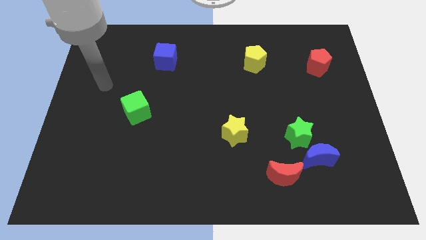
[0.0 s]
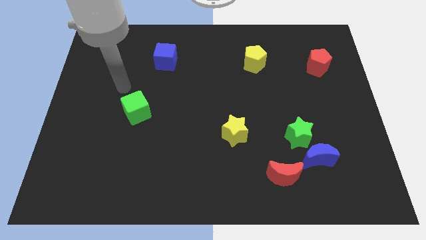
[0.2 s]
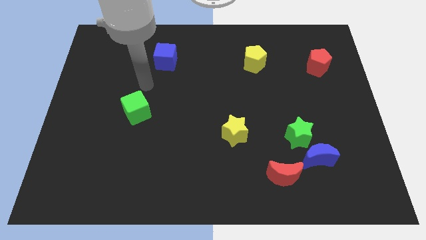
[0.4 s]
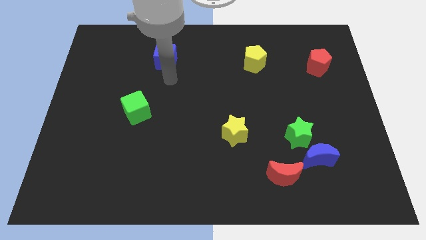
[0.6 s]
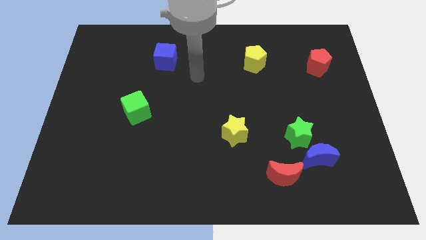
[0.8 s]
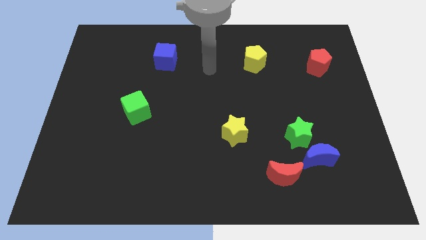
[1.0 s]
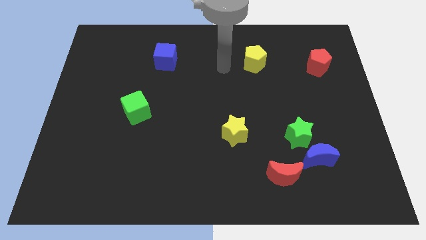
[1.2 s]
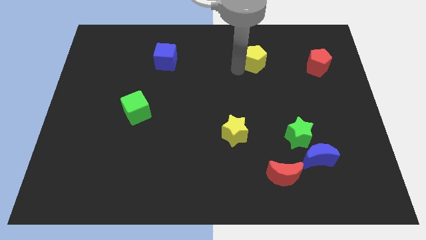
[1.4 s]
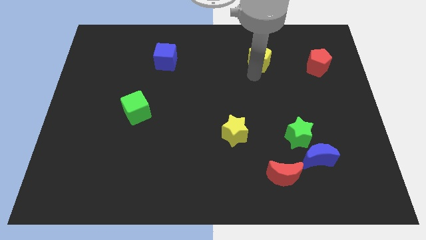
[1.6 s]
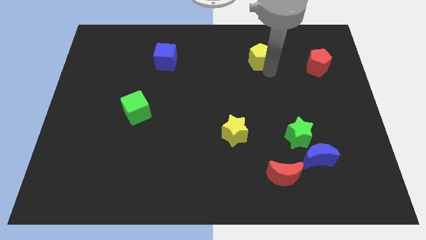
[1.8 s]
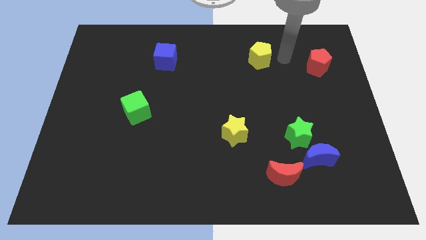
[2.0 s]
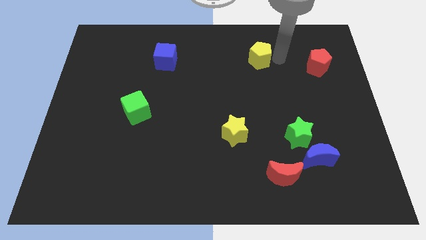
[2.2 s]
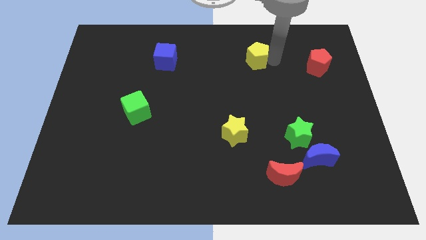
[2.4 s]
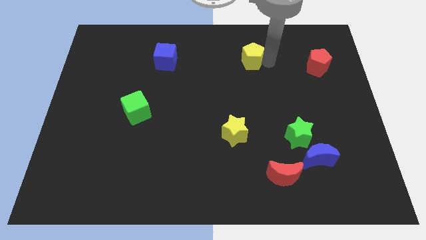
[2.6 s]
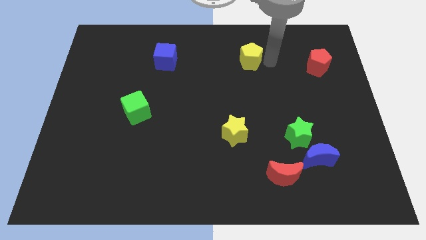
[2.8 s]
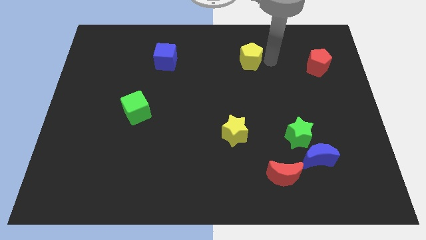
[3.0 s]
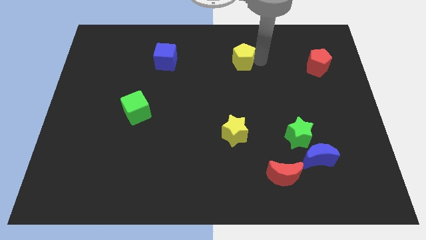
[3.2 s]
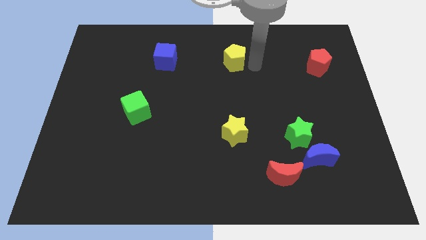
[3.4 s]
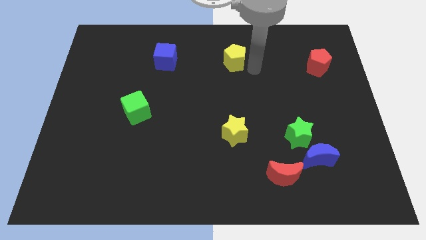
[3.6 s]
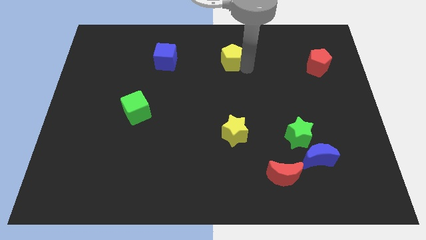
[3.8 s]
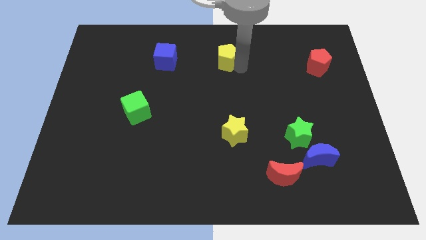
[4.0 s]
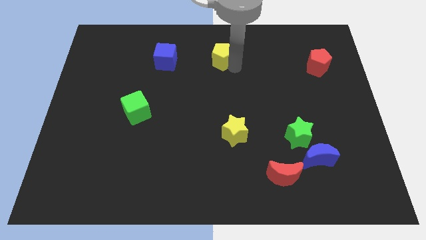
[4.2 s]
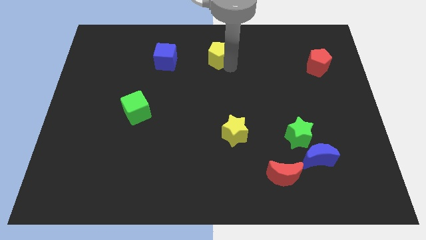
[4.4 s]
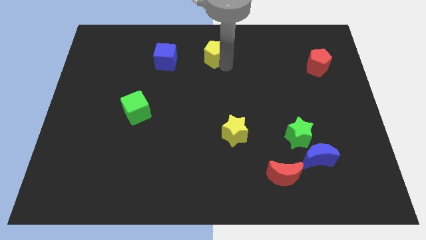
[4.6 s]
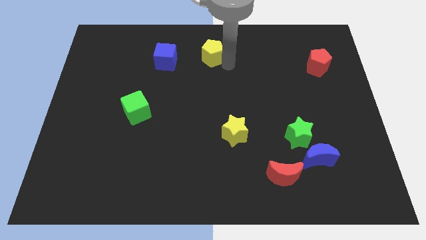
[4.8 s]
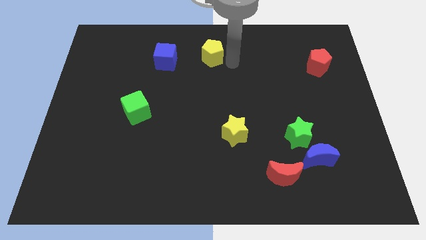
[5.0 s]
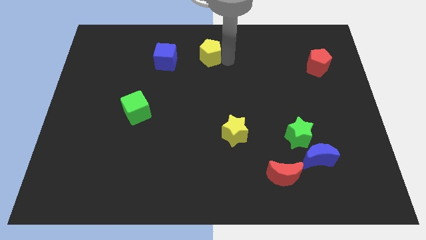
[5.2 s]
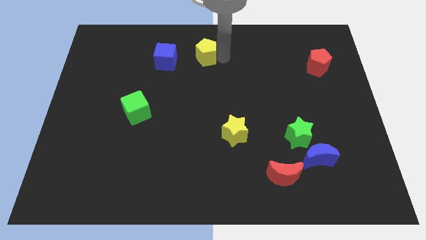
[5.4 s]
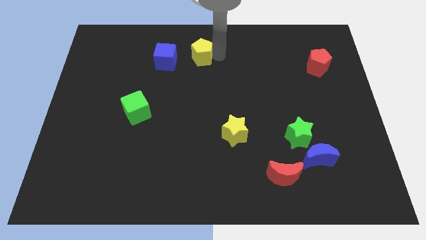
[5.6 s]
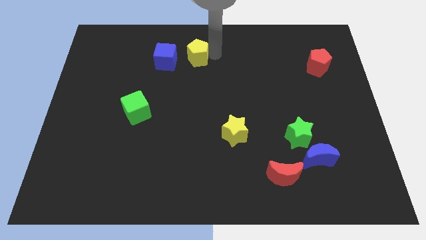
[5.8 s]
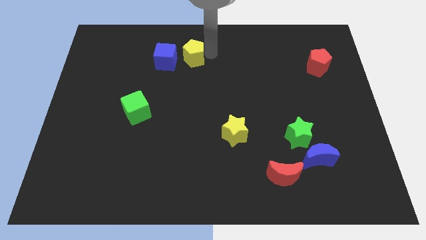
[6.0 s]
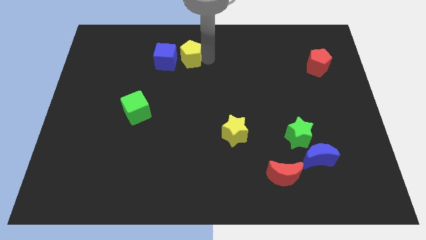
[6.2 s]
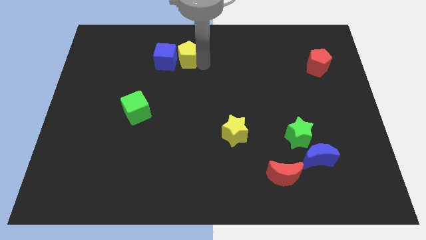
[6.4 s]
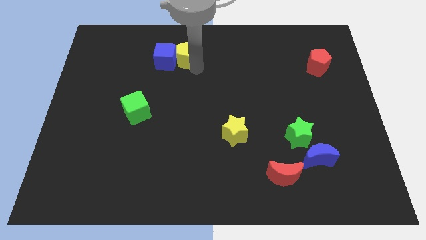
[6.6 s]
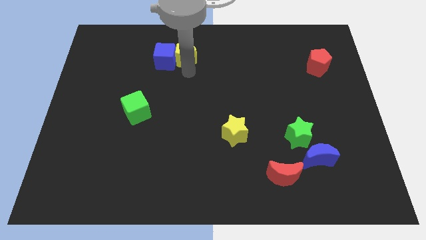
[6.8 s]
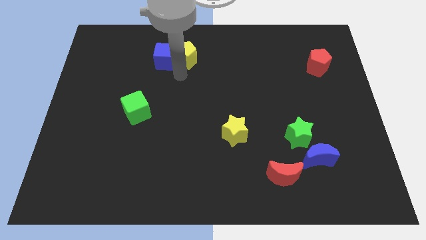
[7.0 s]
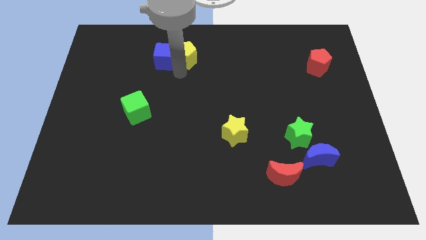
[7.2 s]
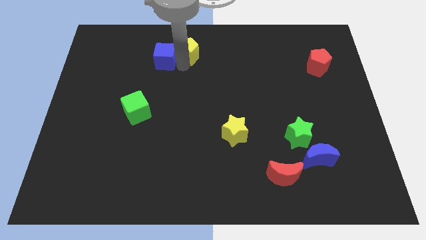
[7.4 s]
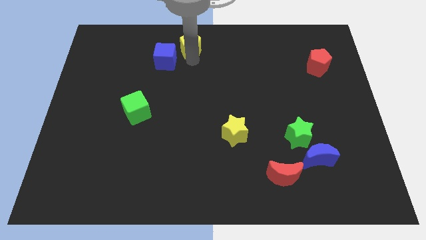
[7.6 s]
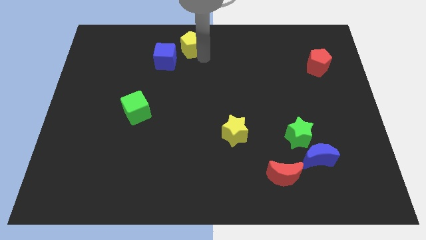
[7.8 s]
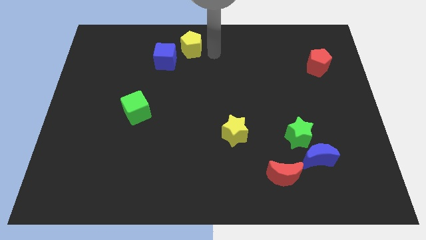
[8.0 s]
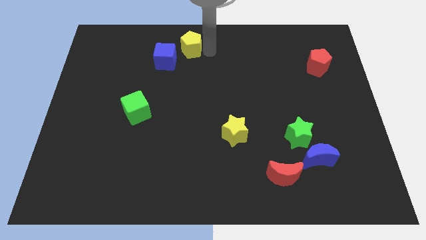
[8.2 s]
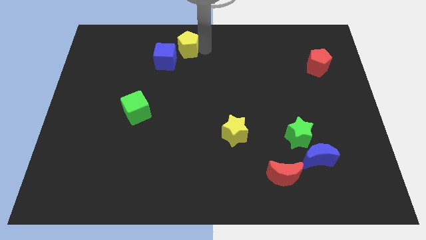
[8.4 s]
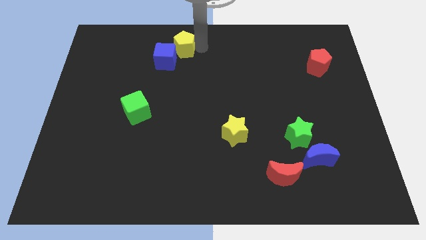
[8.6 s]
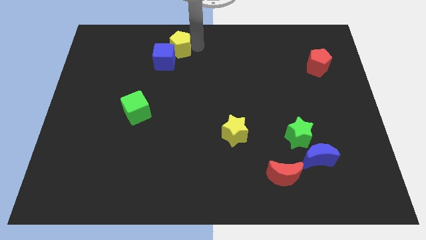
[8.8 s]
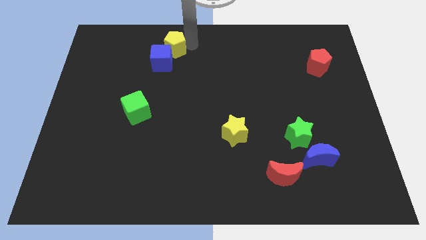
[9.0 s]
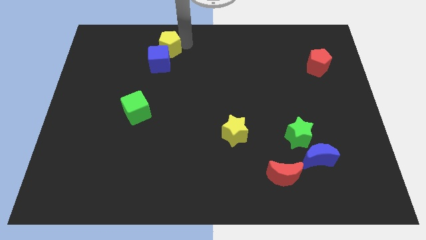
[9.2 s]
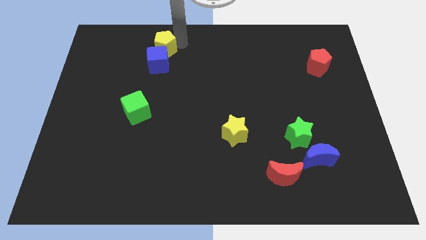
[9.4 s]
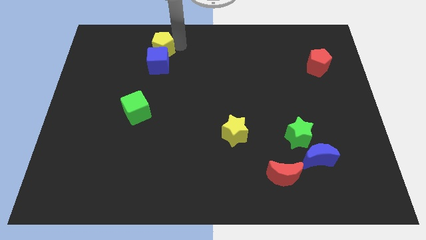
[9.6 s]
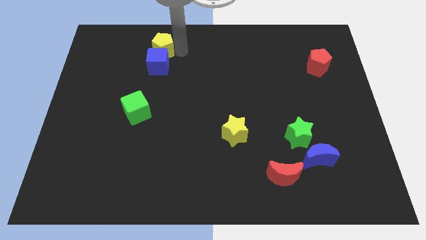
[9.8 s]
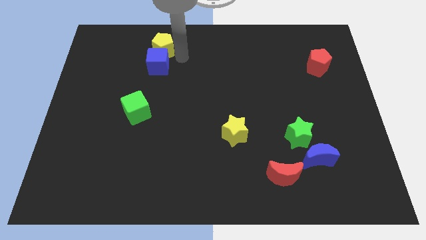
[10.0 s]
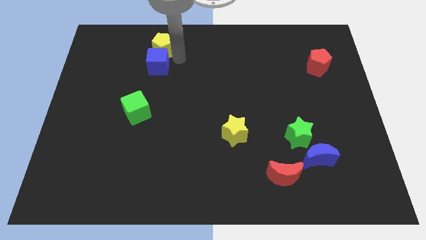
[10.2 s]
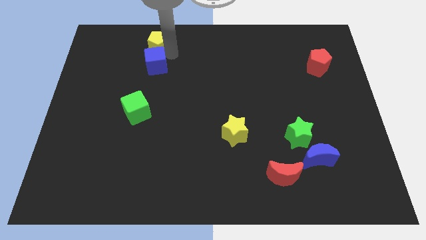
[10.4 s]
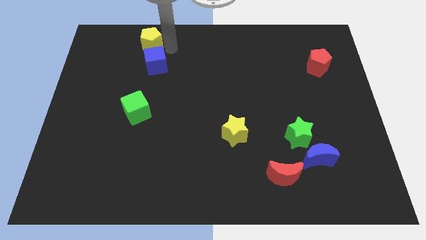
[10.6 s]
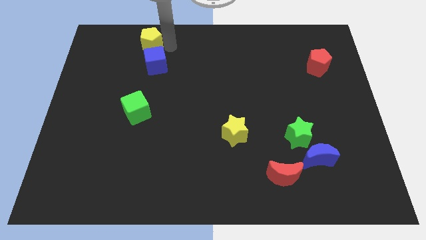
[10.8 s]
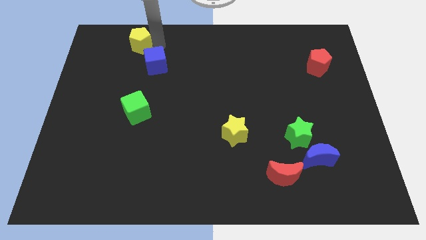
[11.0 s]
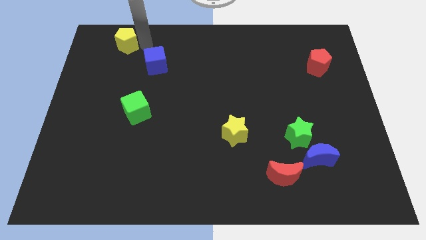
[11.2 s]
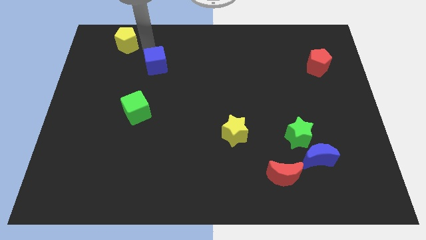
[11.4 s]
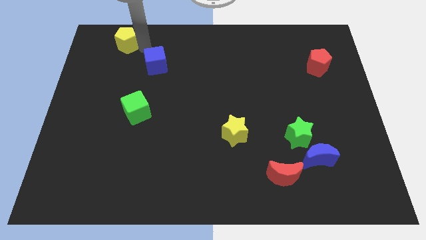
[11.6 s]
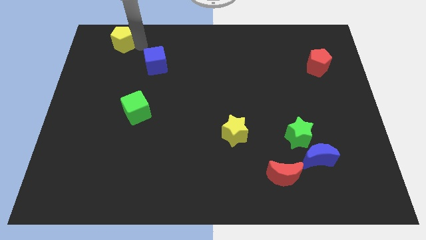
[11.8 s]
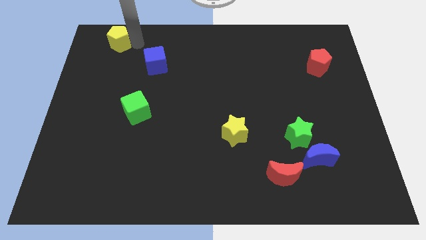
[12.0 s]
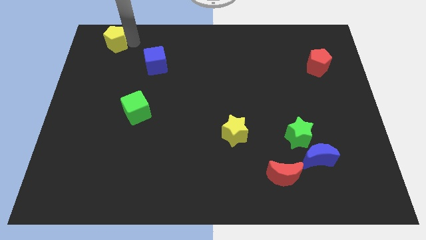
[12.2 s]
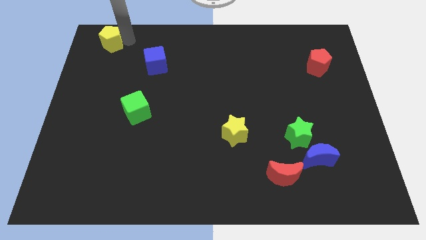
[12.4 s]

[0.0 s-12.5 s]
slide the yellow pentagon to the top left corner

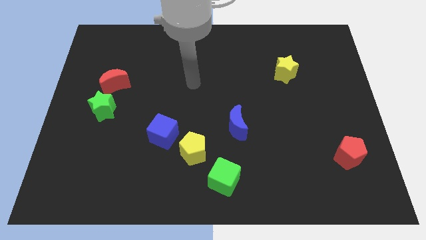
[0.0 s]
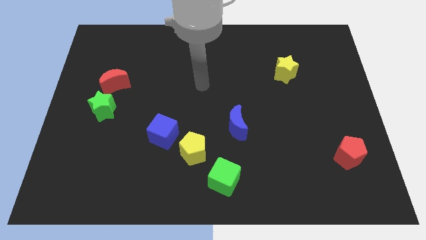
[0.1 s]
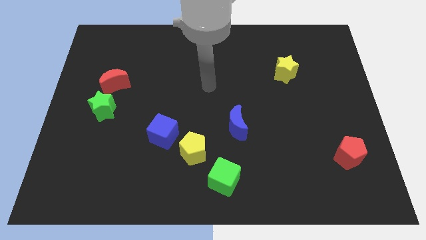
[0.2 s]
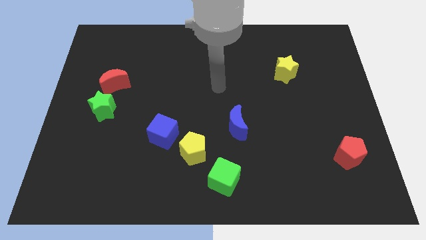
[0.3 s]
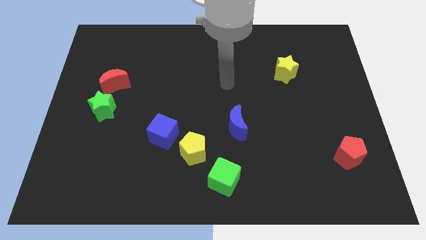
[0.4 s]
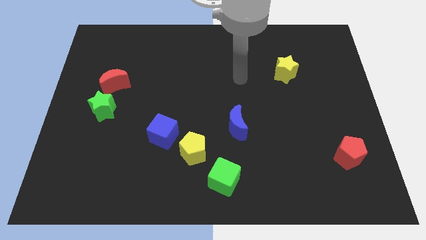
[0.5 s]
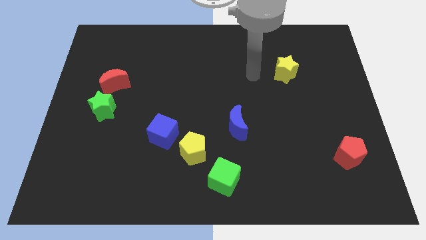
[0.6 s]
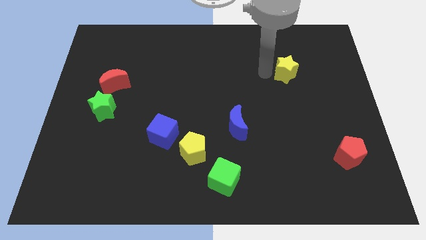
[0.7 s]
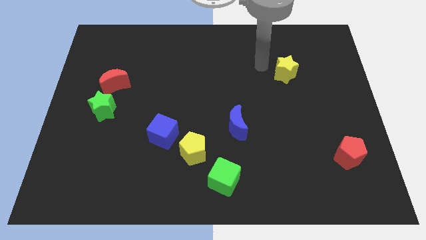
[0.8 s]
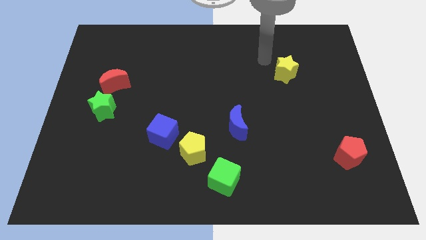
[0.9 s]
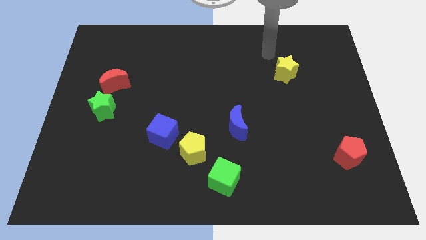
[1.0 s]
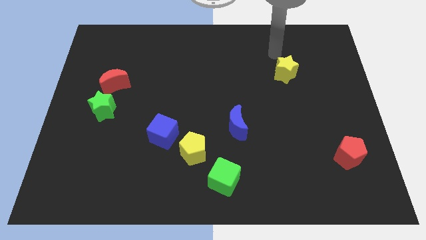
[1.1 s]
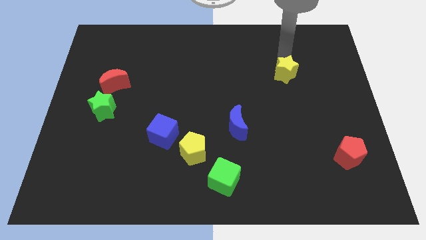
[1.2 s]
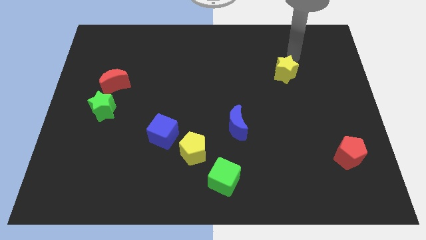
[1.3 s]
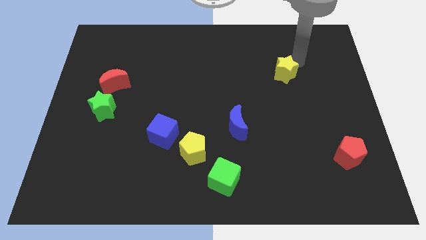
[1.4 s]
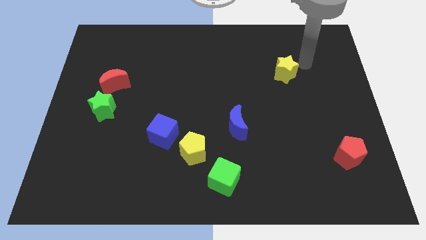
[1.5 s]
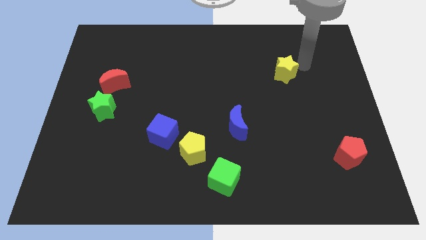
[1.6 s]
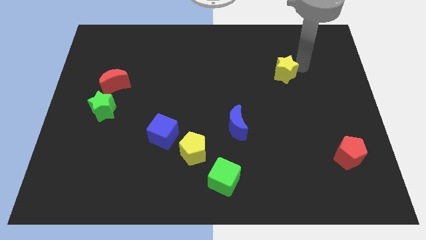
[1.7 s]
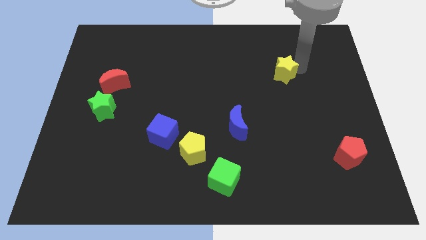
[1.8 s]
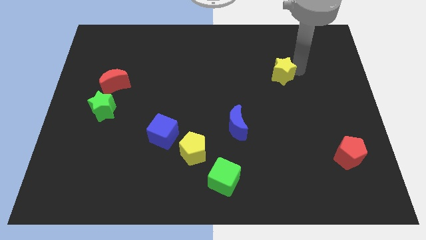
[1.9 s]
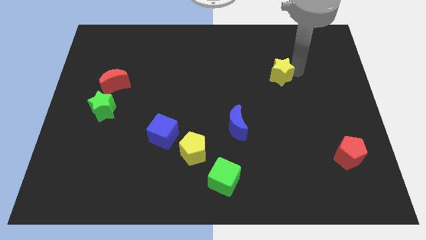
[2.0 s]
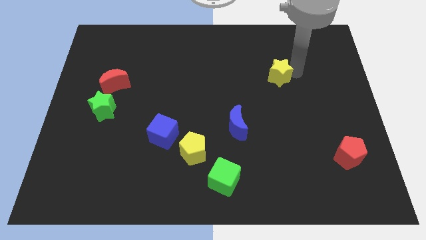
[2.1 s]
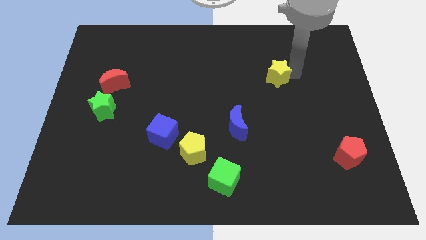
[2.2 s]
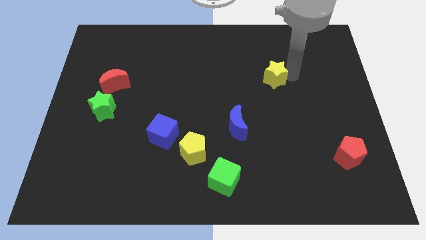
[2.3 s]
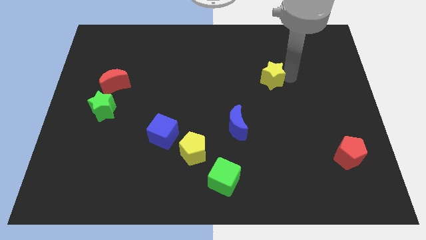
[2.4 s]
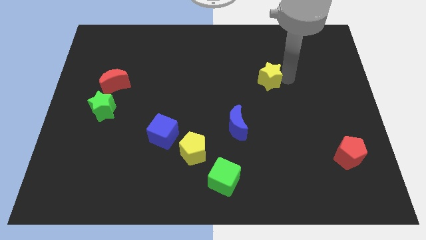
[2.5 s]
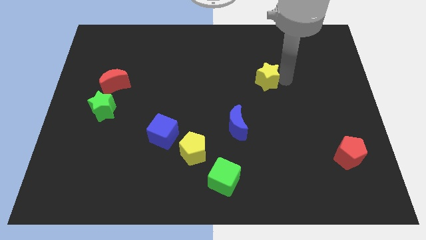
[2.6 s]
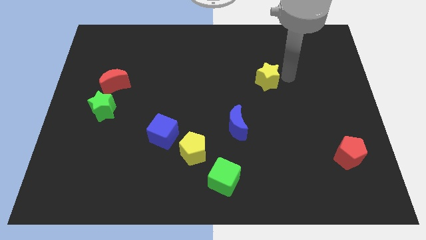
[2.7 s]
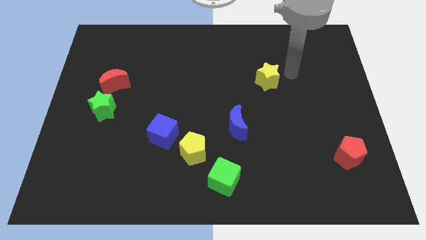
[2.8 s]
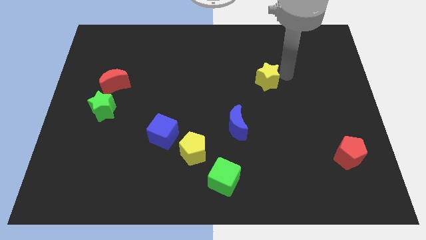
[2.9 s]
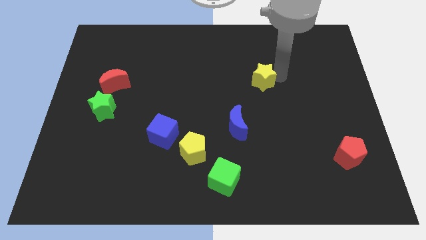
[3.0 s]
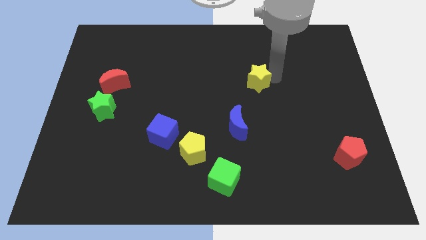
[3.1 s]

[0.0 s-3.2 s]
move the yellow star to the center
